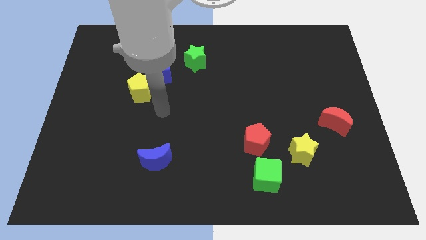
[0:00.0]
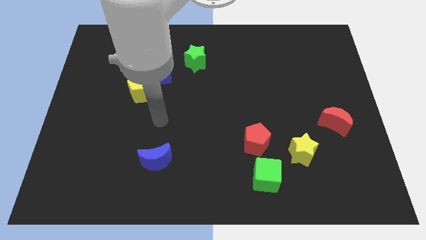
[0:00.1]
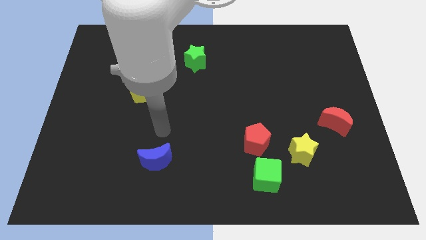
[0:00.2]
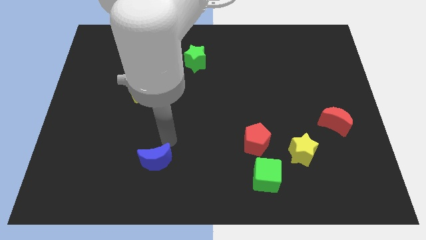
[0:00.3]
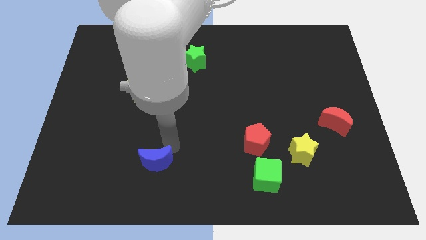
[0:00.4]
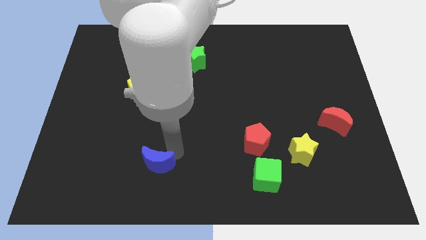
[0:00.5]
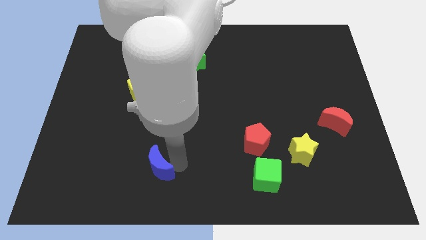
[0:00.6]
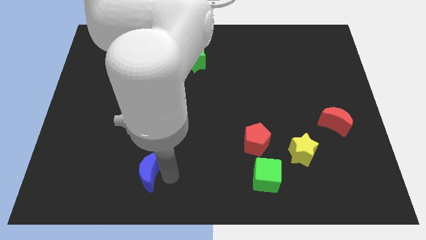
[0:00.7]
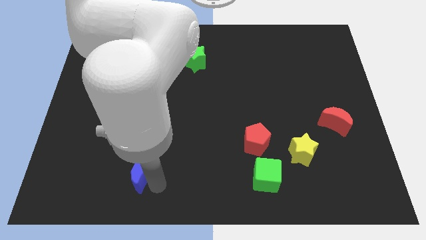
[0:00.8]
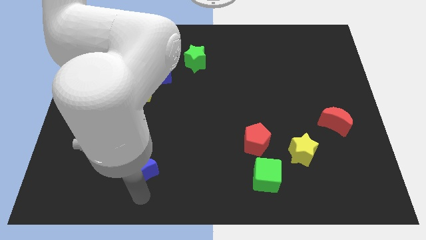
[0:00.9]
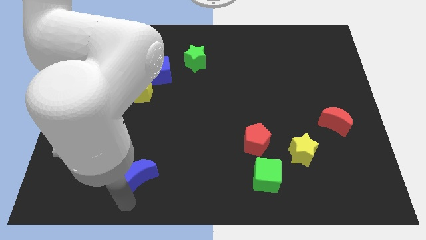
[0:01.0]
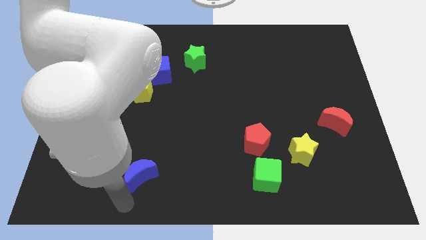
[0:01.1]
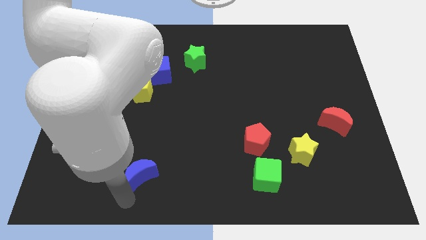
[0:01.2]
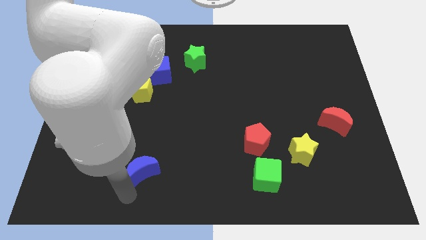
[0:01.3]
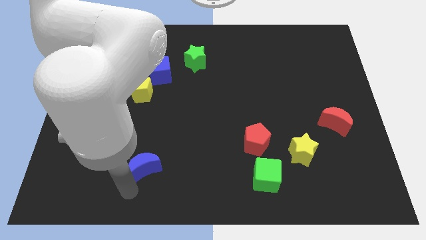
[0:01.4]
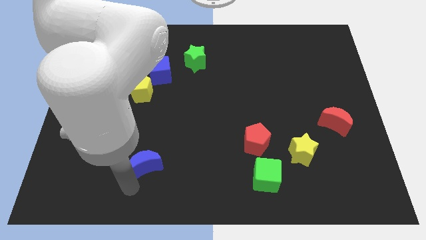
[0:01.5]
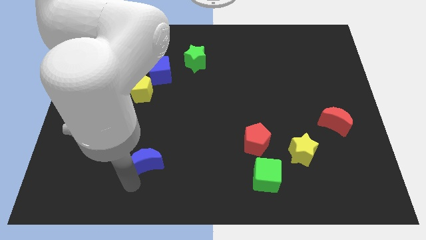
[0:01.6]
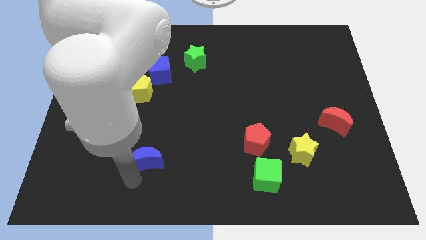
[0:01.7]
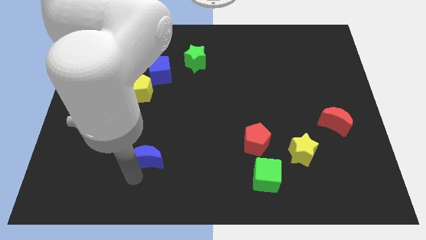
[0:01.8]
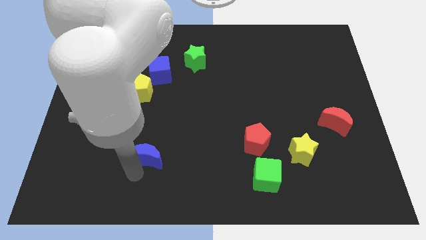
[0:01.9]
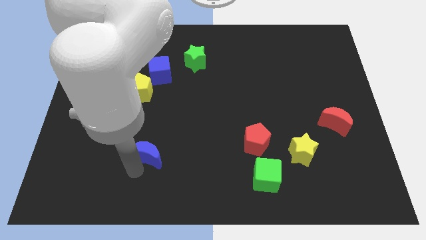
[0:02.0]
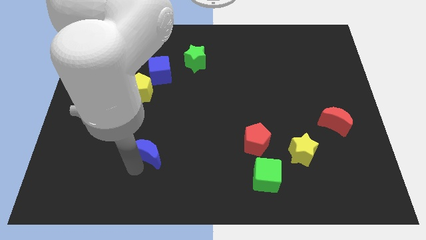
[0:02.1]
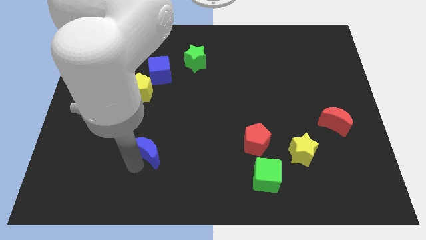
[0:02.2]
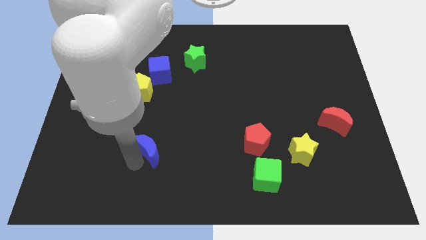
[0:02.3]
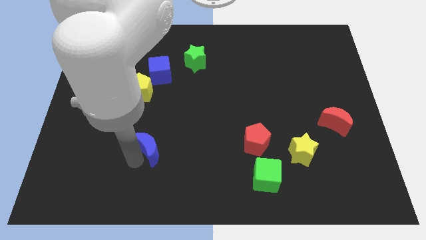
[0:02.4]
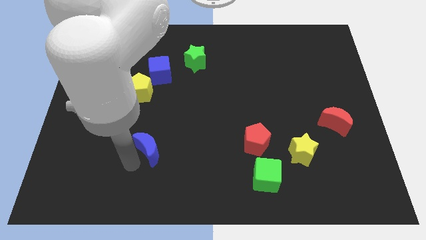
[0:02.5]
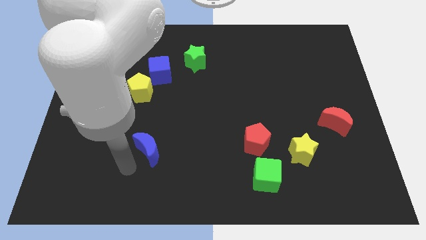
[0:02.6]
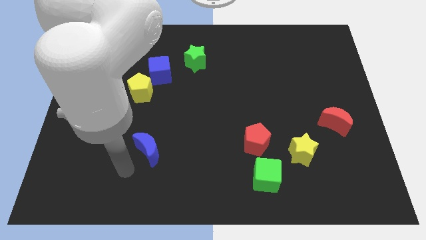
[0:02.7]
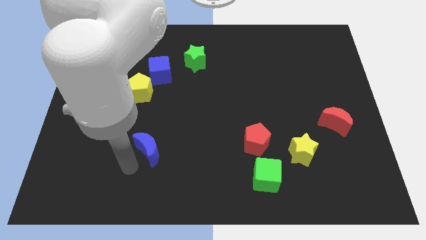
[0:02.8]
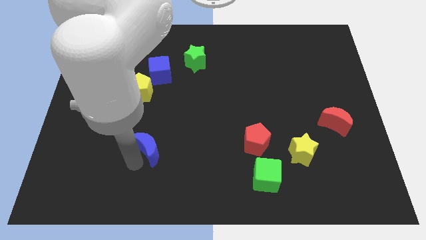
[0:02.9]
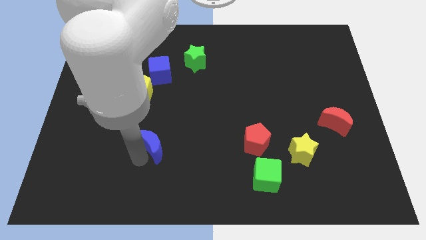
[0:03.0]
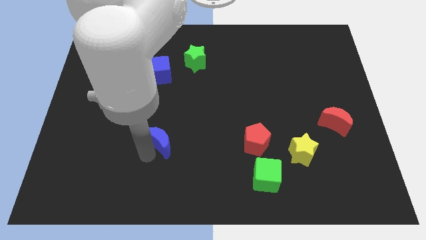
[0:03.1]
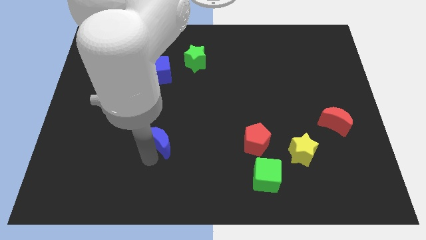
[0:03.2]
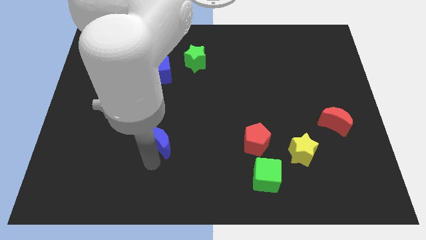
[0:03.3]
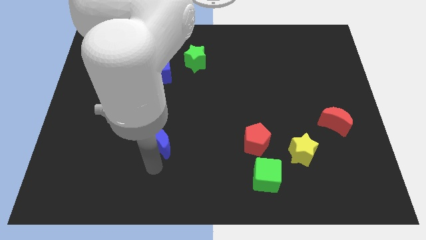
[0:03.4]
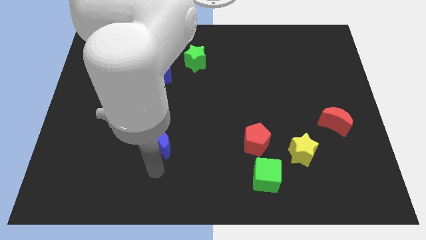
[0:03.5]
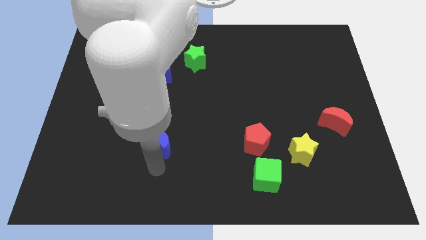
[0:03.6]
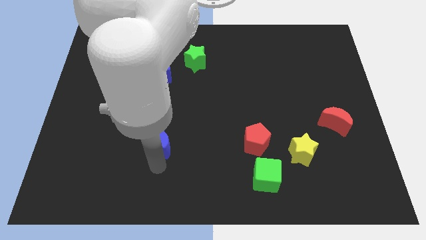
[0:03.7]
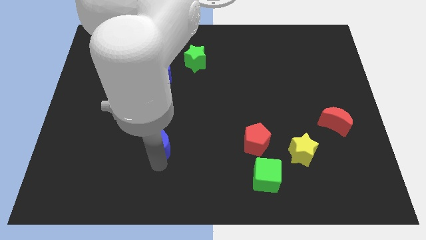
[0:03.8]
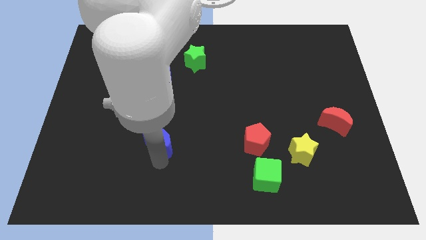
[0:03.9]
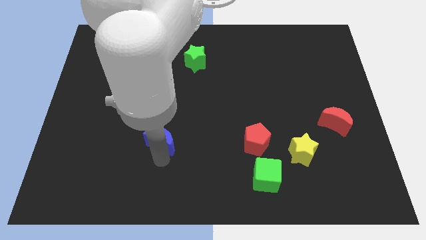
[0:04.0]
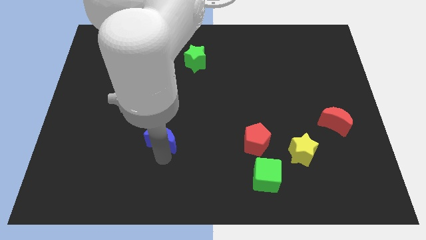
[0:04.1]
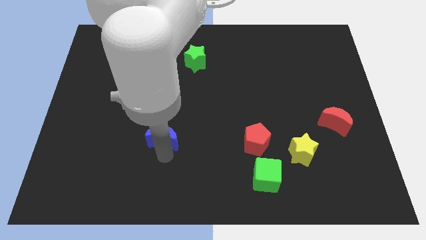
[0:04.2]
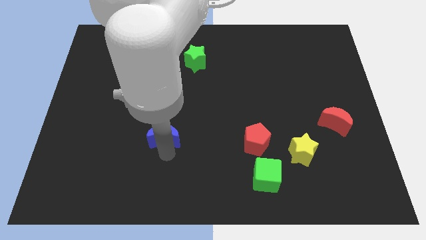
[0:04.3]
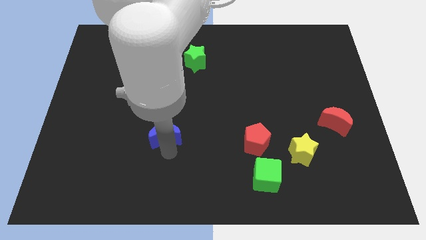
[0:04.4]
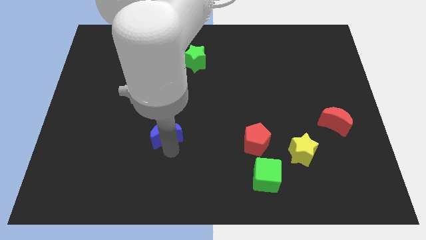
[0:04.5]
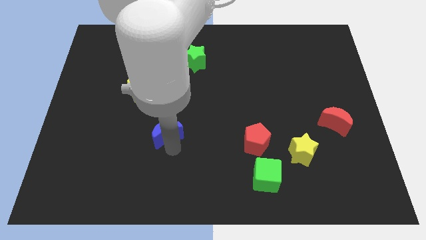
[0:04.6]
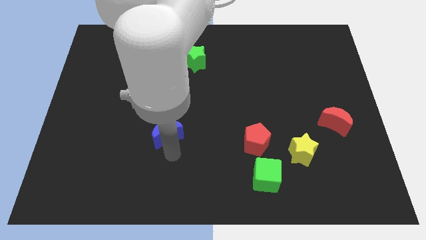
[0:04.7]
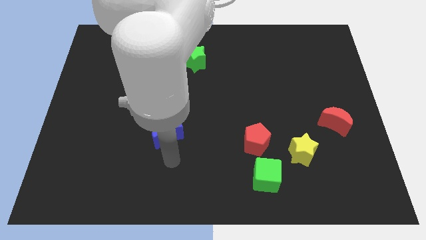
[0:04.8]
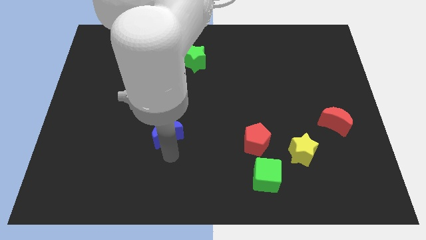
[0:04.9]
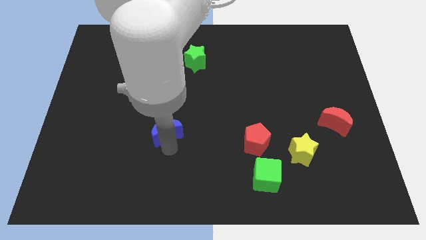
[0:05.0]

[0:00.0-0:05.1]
move the blue moon upwards a little bit

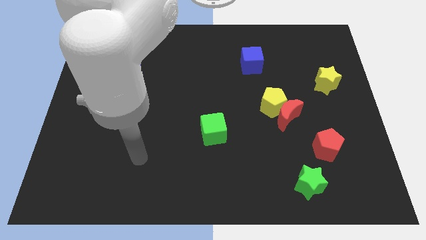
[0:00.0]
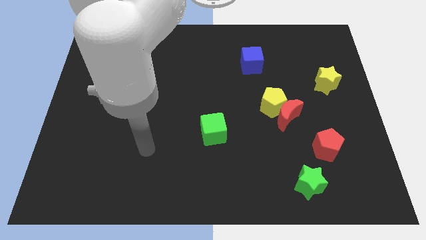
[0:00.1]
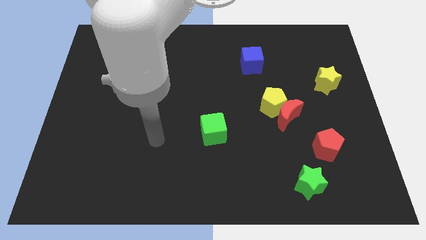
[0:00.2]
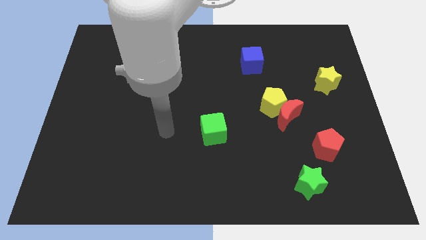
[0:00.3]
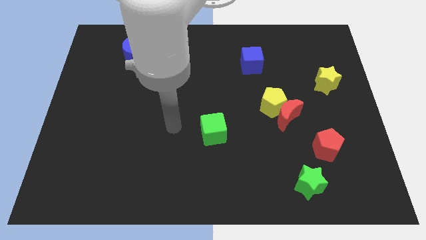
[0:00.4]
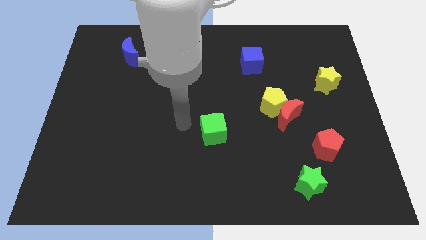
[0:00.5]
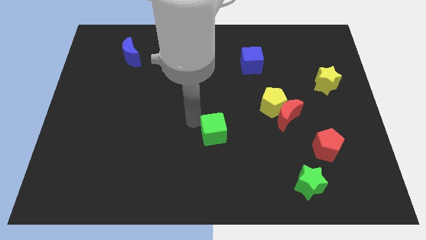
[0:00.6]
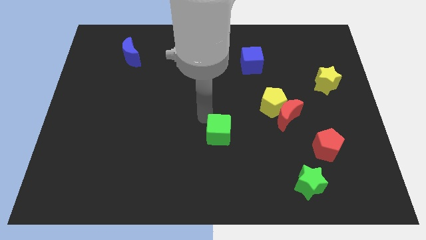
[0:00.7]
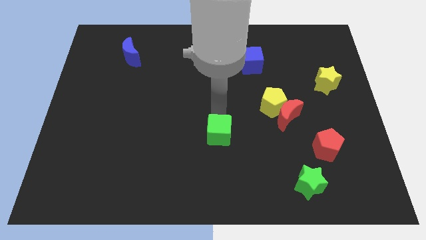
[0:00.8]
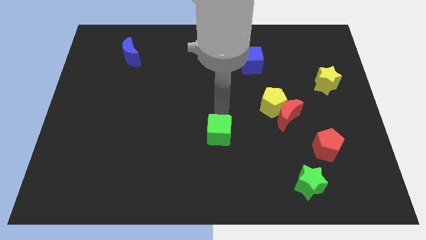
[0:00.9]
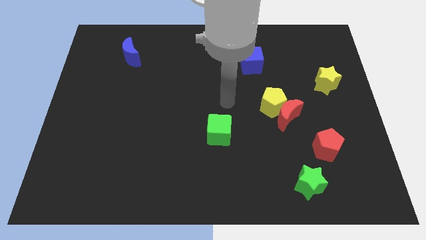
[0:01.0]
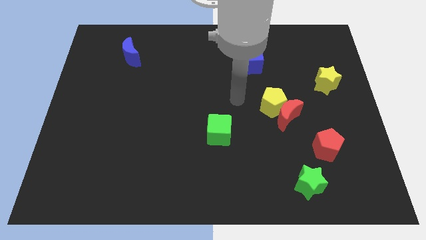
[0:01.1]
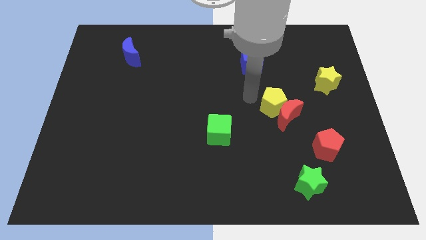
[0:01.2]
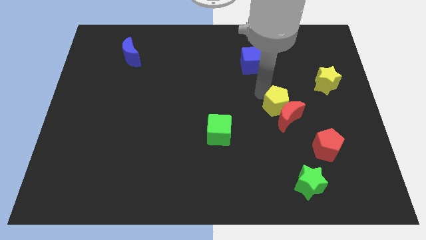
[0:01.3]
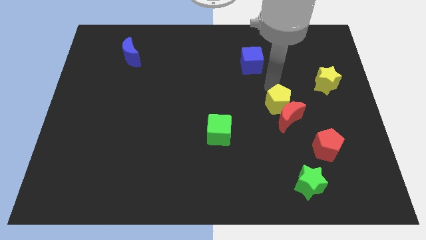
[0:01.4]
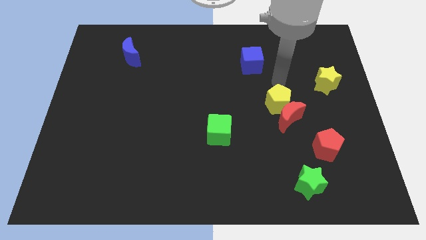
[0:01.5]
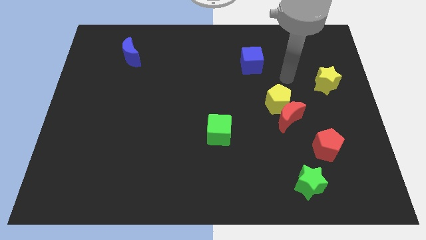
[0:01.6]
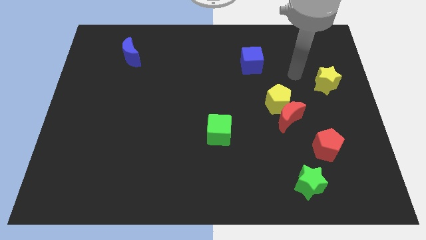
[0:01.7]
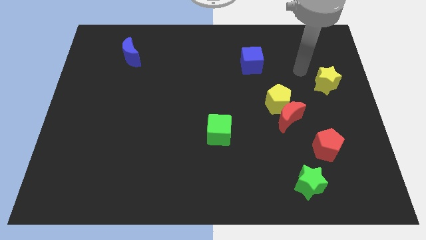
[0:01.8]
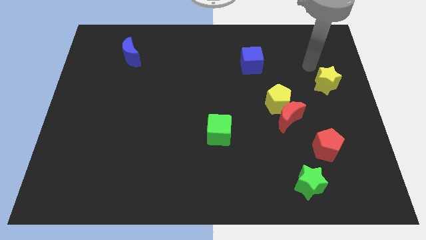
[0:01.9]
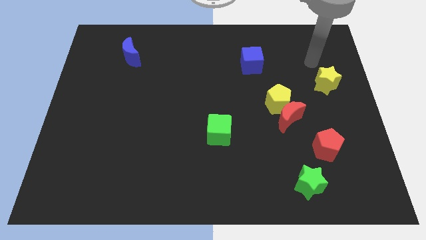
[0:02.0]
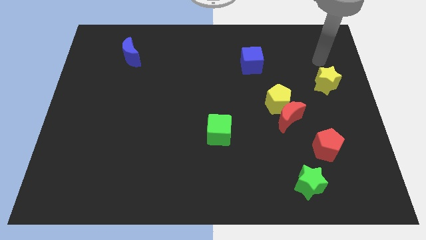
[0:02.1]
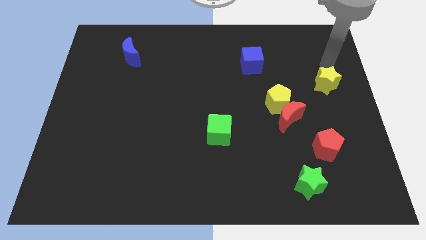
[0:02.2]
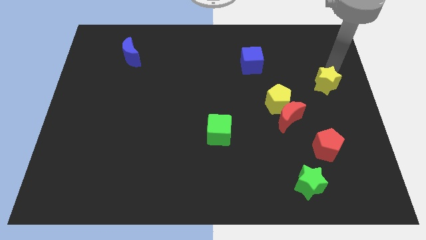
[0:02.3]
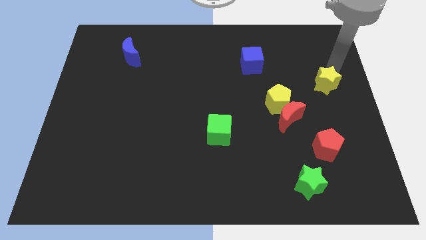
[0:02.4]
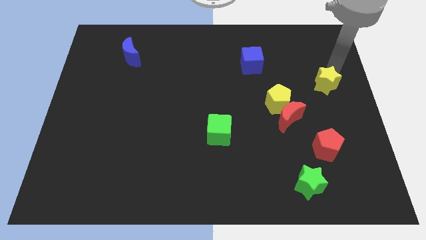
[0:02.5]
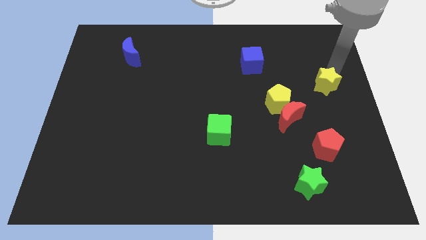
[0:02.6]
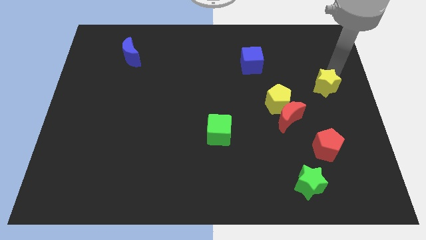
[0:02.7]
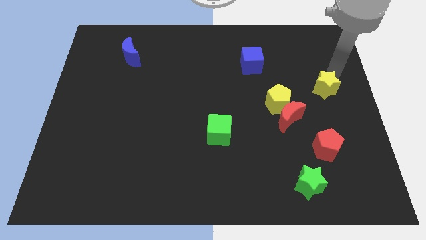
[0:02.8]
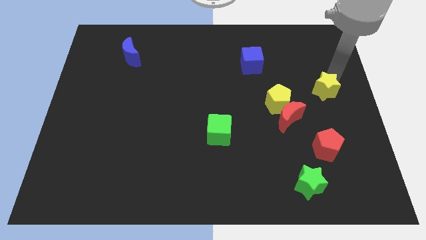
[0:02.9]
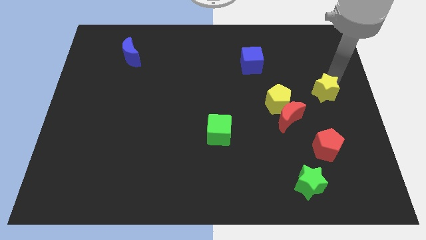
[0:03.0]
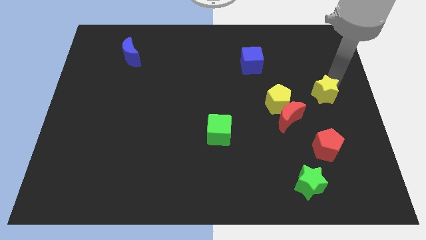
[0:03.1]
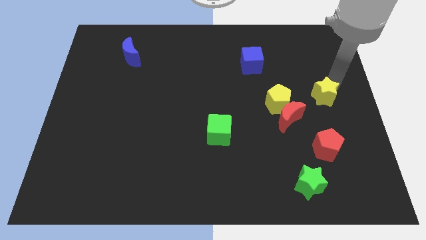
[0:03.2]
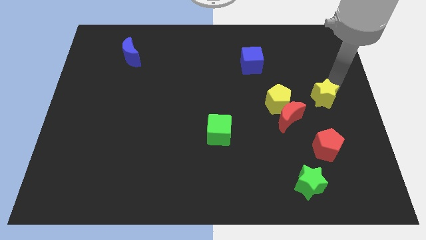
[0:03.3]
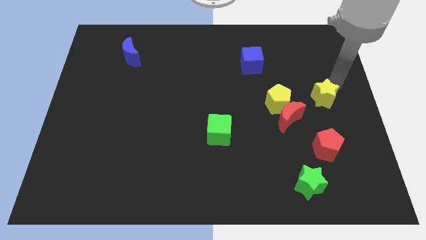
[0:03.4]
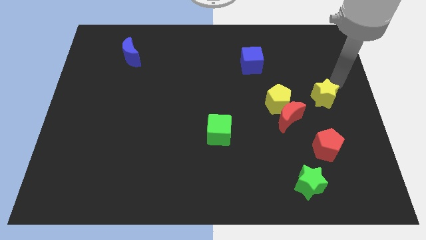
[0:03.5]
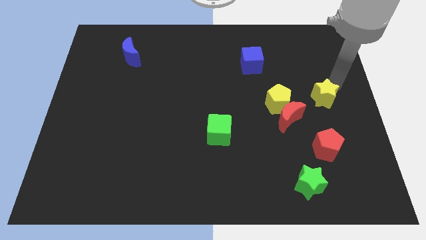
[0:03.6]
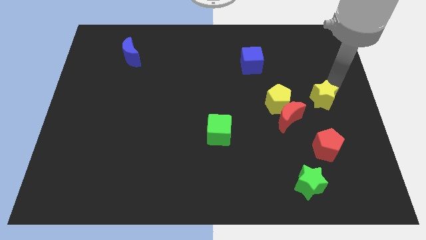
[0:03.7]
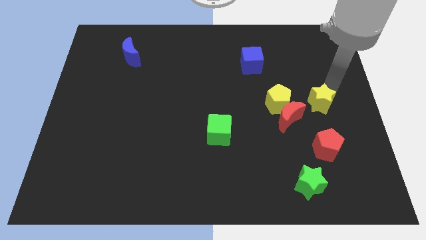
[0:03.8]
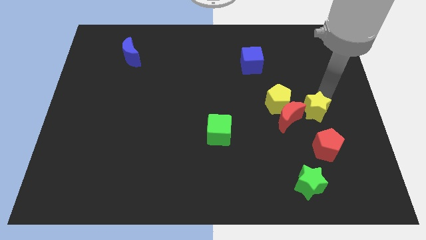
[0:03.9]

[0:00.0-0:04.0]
slide the yellow star a little down and left
